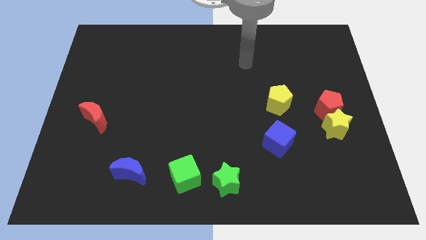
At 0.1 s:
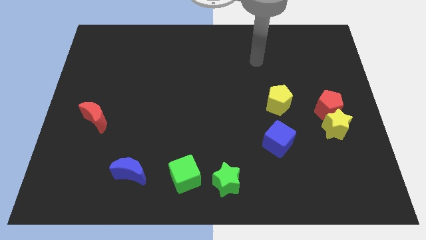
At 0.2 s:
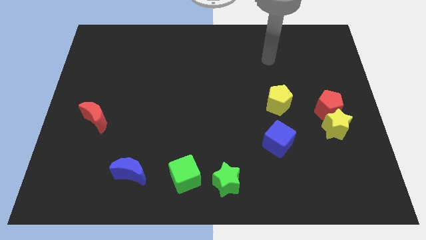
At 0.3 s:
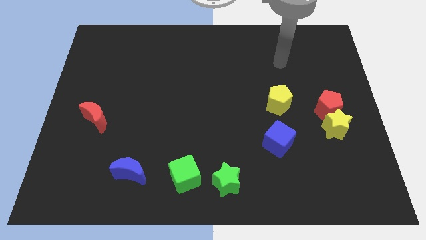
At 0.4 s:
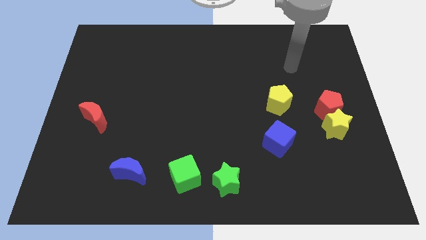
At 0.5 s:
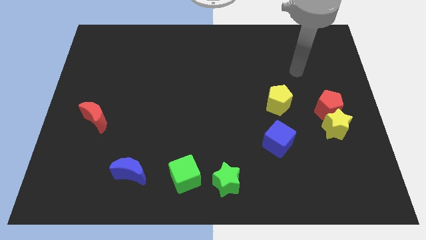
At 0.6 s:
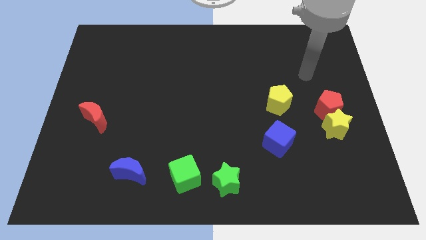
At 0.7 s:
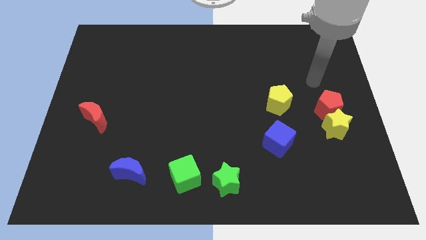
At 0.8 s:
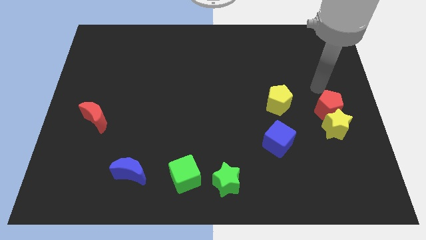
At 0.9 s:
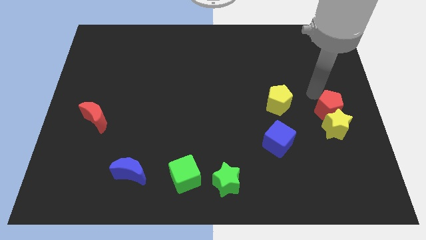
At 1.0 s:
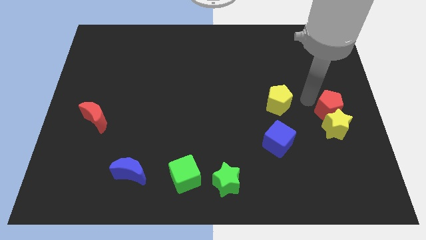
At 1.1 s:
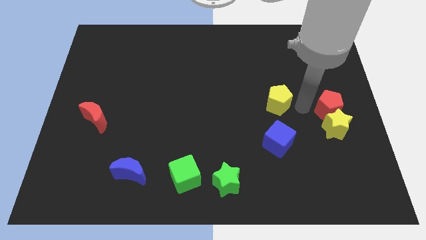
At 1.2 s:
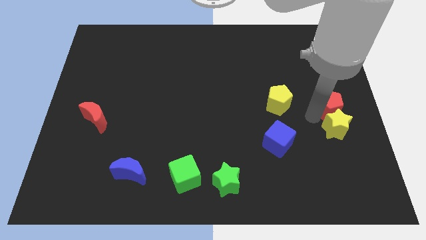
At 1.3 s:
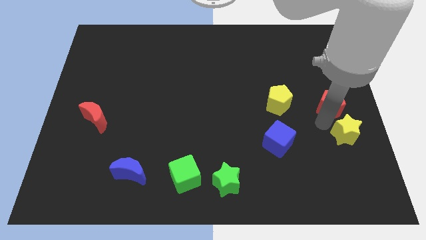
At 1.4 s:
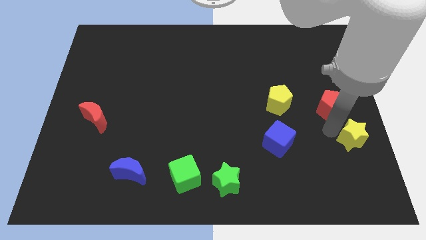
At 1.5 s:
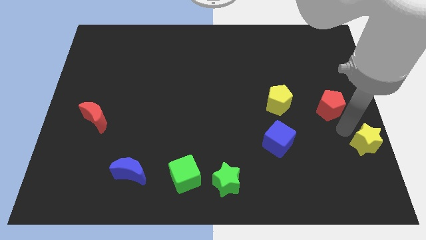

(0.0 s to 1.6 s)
pull the red pentagon apart from the yellow star

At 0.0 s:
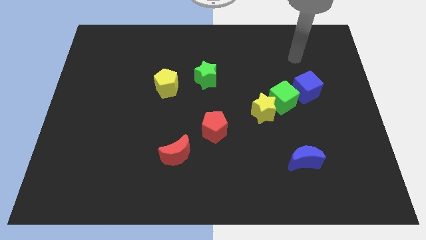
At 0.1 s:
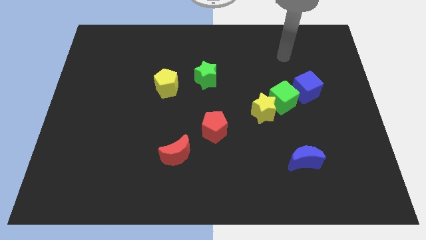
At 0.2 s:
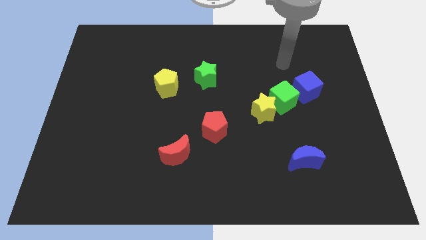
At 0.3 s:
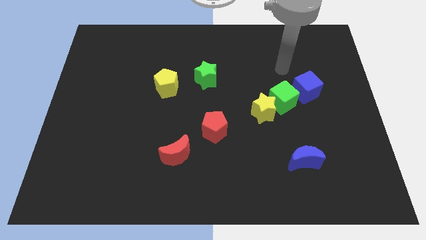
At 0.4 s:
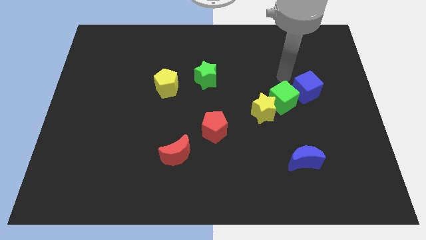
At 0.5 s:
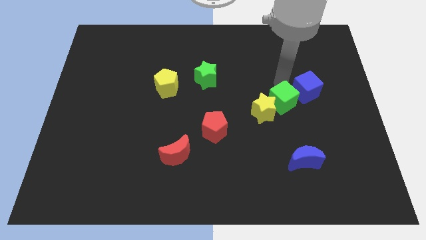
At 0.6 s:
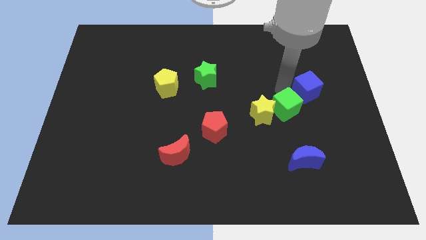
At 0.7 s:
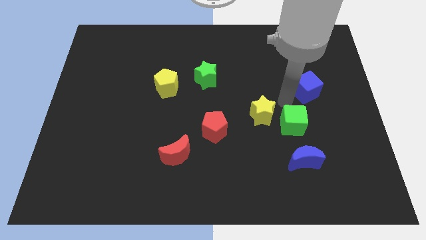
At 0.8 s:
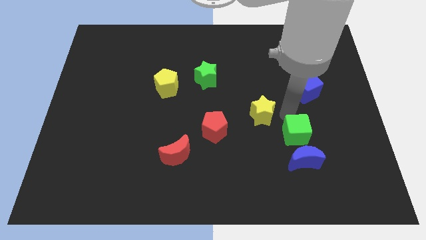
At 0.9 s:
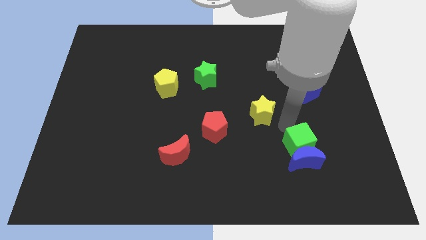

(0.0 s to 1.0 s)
move the yellow star away from the green cube

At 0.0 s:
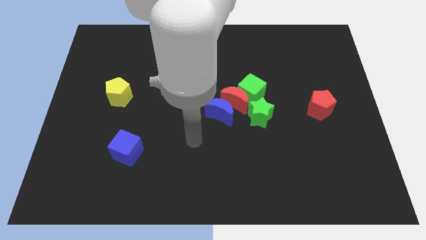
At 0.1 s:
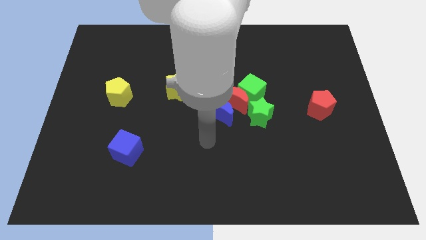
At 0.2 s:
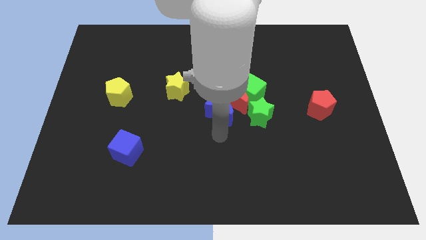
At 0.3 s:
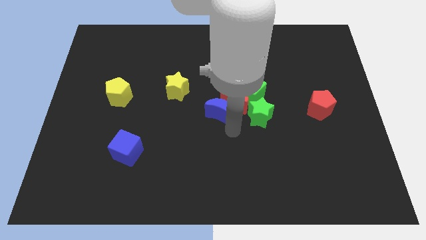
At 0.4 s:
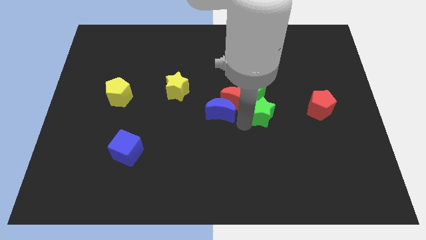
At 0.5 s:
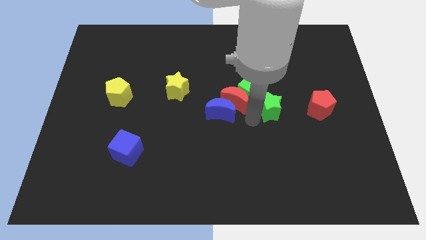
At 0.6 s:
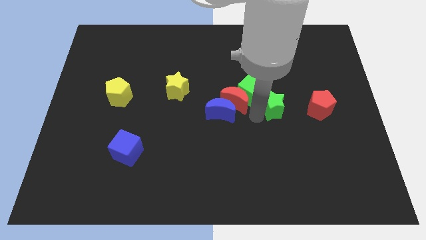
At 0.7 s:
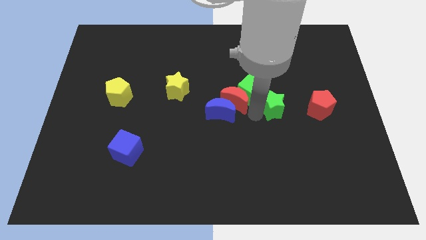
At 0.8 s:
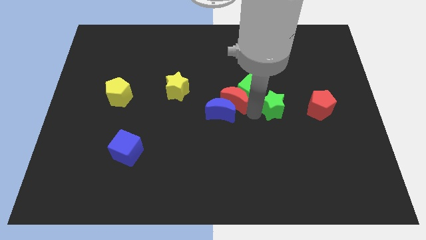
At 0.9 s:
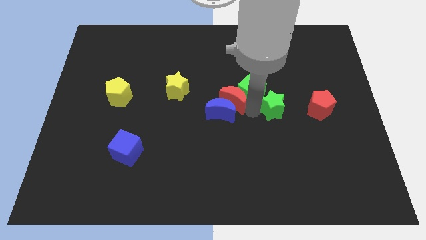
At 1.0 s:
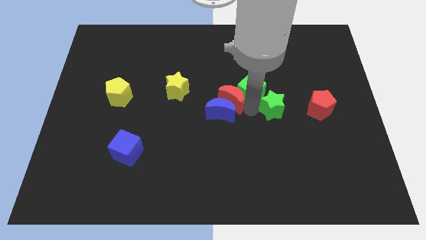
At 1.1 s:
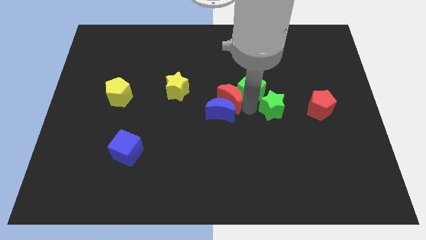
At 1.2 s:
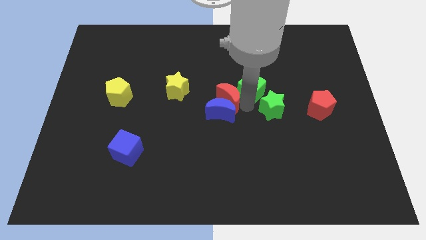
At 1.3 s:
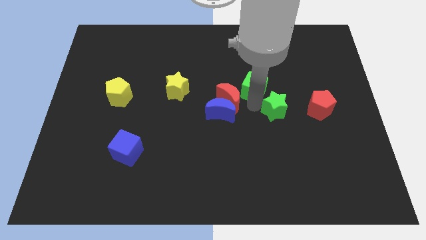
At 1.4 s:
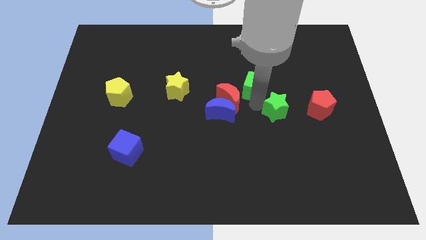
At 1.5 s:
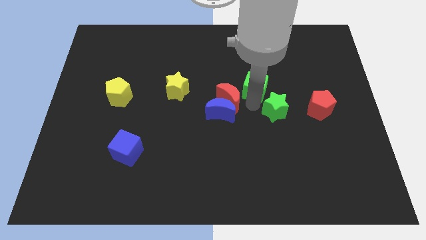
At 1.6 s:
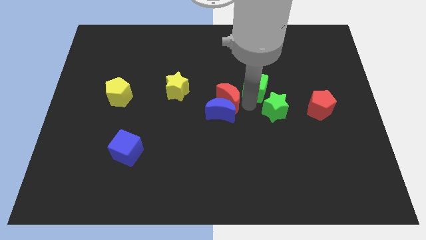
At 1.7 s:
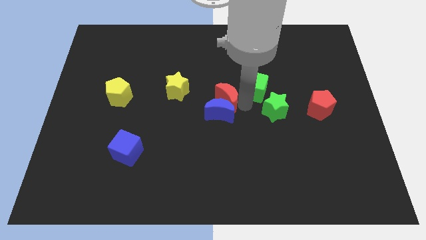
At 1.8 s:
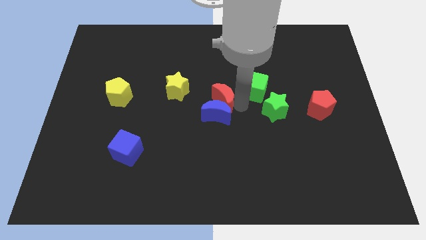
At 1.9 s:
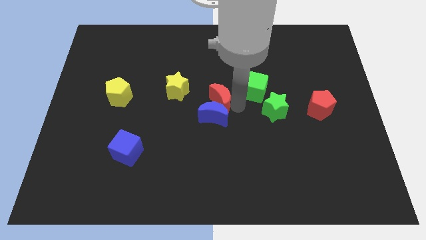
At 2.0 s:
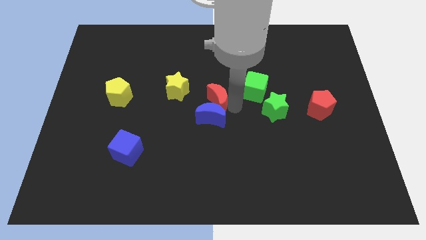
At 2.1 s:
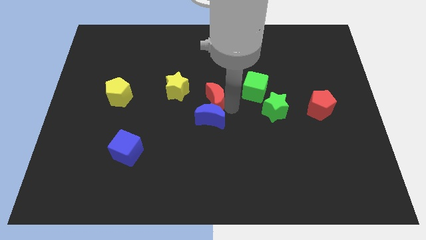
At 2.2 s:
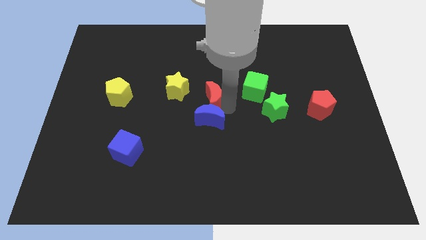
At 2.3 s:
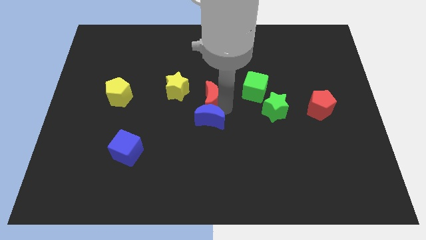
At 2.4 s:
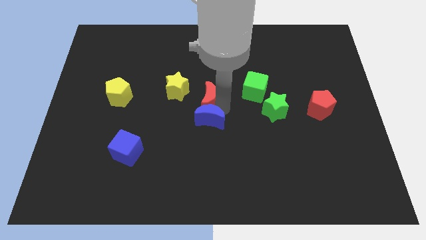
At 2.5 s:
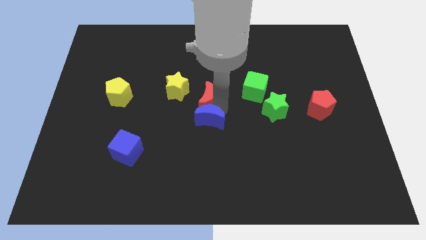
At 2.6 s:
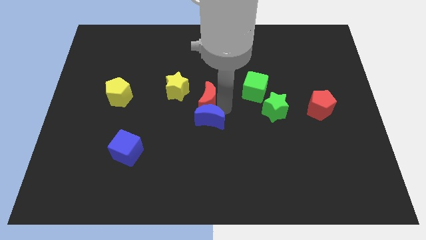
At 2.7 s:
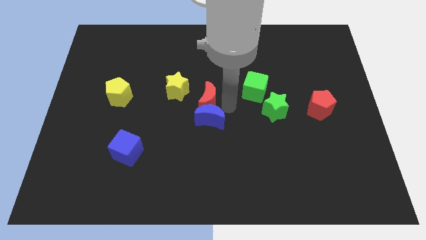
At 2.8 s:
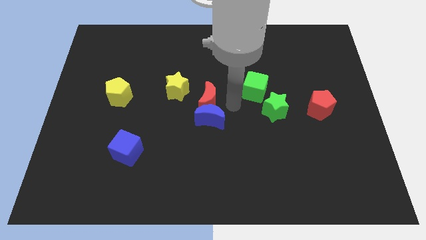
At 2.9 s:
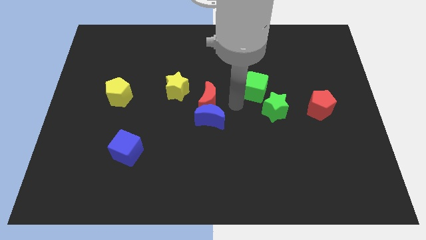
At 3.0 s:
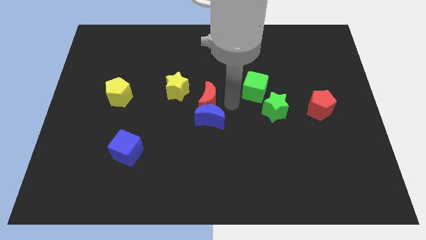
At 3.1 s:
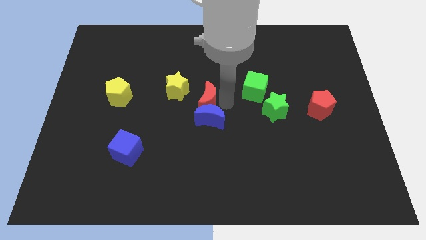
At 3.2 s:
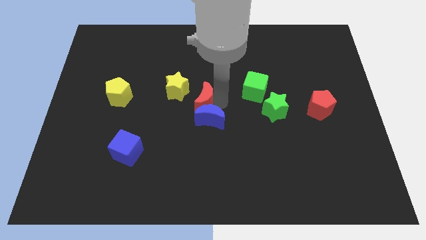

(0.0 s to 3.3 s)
separate the red moon from the group of blocks

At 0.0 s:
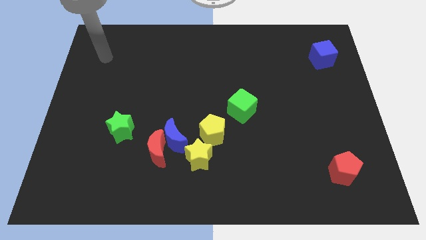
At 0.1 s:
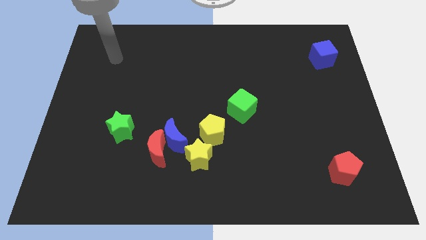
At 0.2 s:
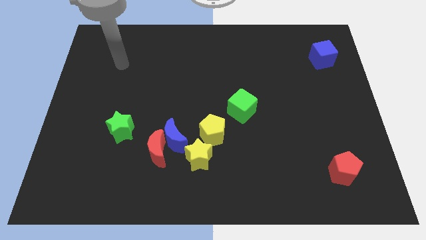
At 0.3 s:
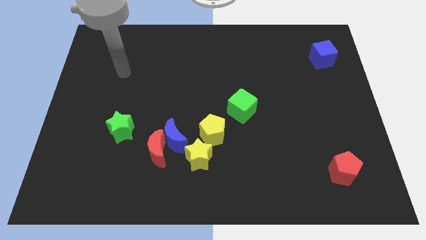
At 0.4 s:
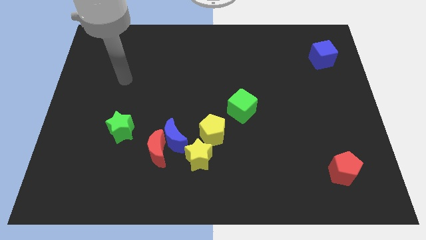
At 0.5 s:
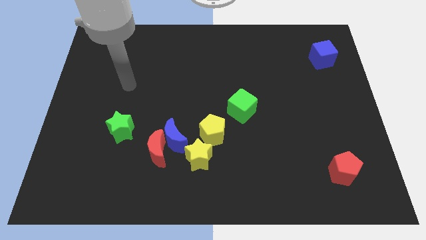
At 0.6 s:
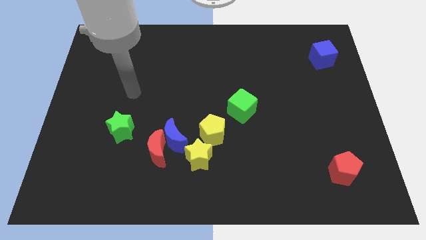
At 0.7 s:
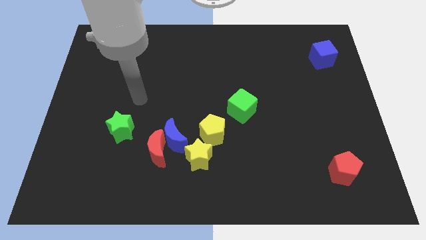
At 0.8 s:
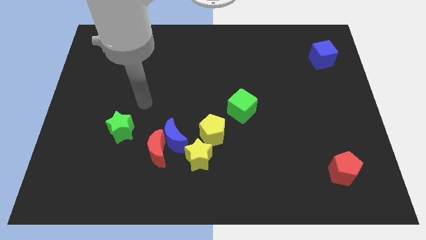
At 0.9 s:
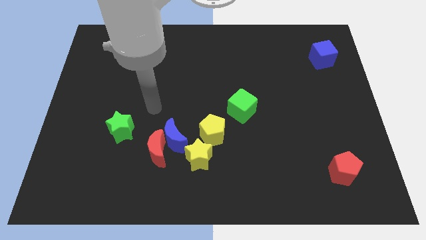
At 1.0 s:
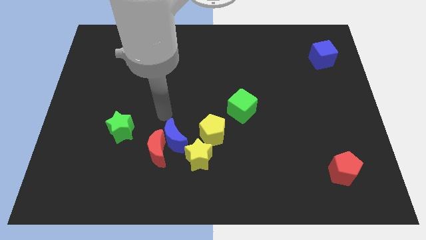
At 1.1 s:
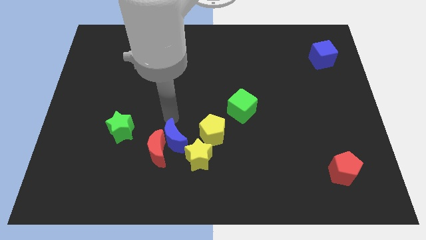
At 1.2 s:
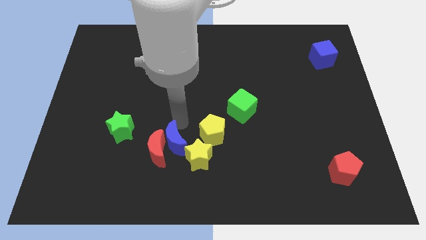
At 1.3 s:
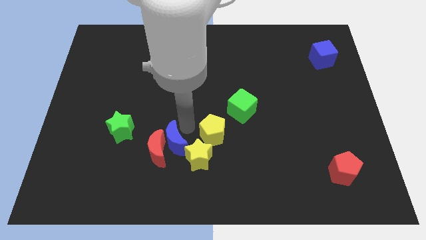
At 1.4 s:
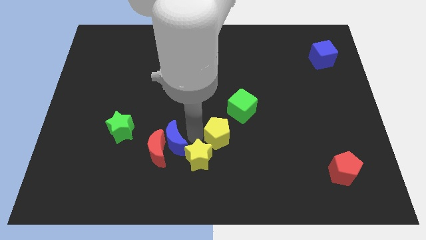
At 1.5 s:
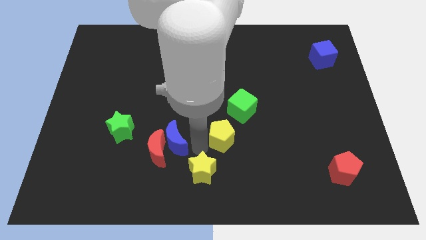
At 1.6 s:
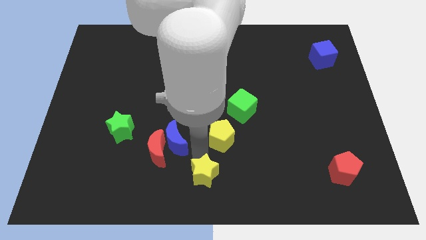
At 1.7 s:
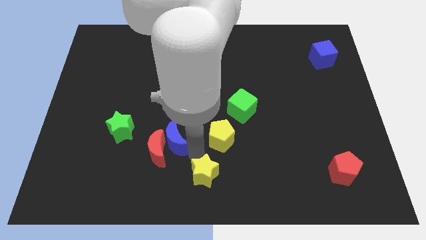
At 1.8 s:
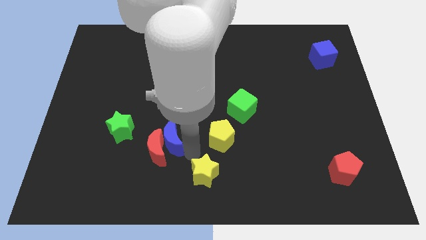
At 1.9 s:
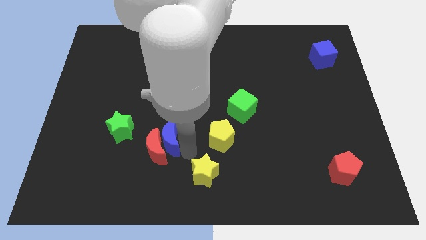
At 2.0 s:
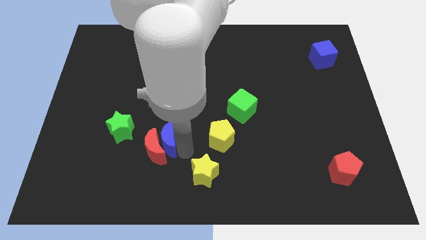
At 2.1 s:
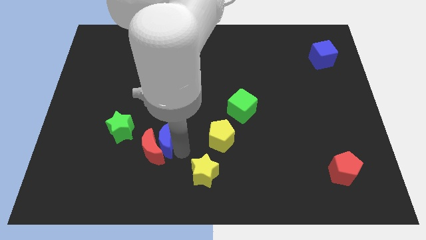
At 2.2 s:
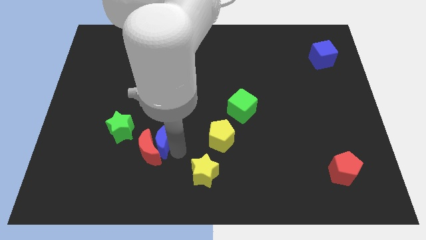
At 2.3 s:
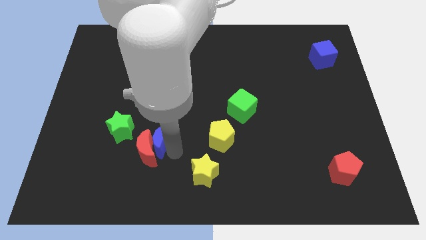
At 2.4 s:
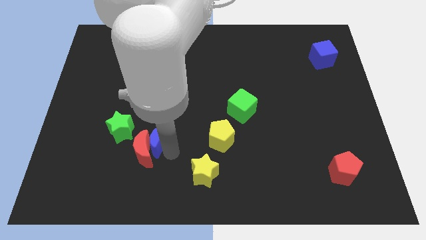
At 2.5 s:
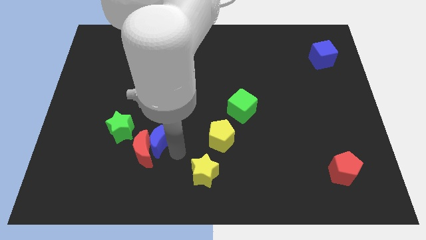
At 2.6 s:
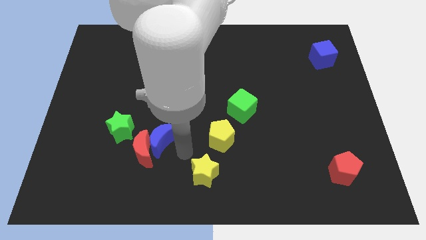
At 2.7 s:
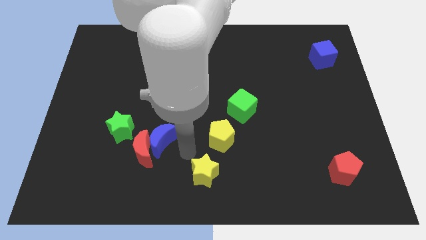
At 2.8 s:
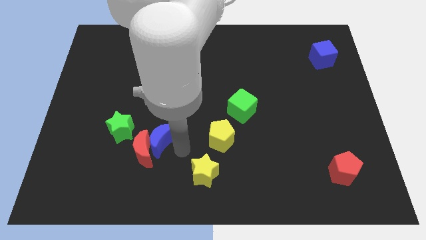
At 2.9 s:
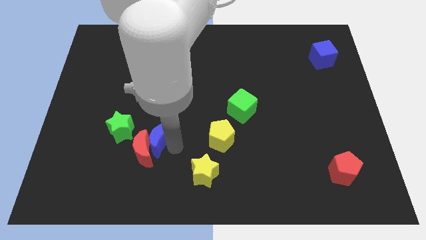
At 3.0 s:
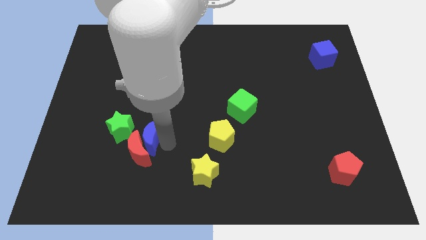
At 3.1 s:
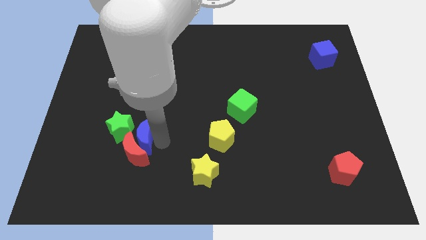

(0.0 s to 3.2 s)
pull the blue moon apart from the group
